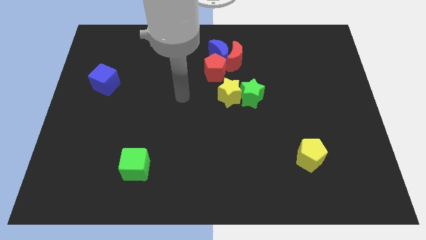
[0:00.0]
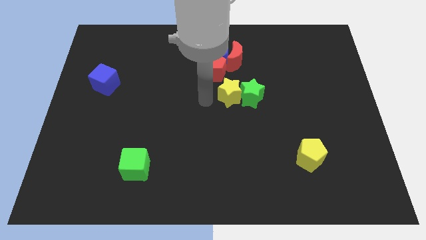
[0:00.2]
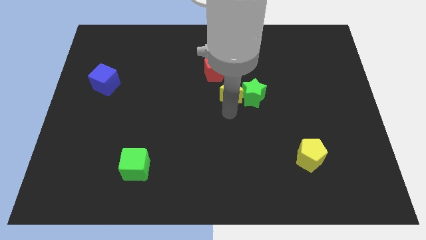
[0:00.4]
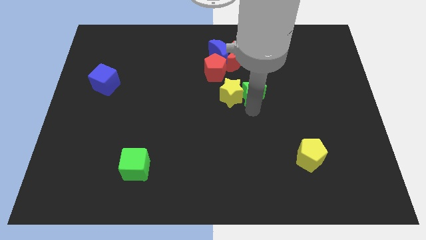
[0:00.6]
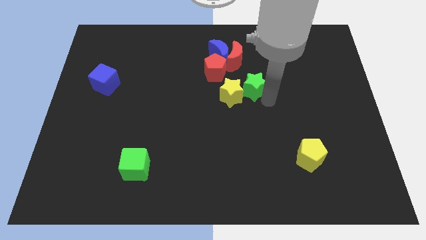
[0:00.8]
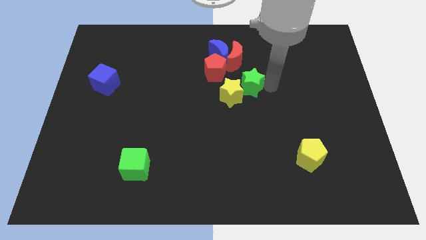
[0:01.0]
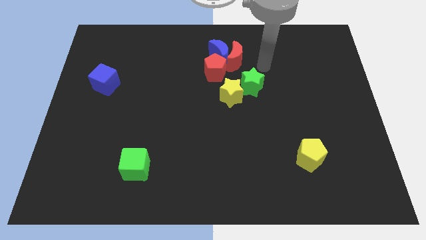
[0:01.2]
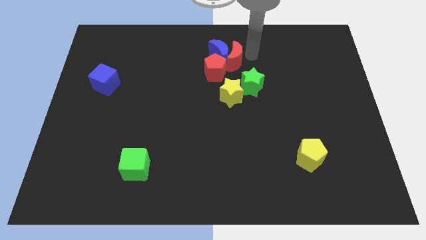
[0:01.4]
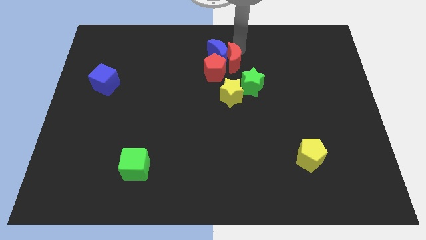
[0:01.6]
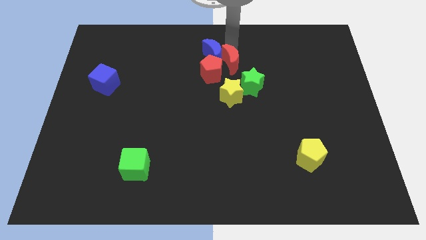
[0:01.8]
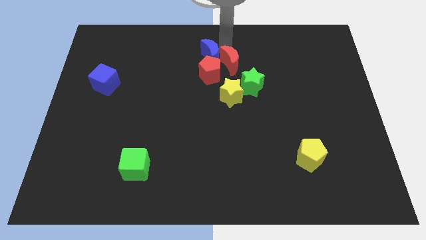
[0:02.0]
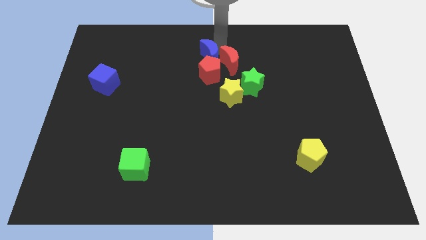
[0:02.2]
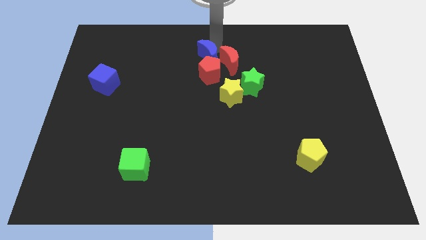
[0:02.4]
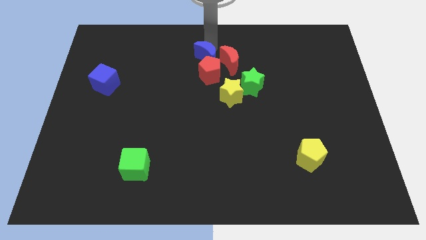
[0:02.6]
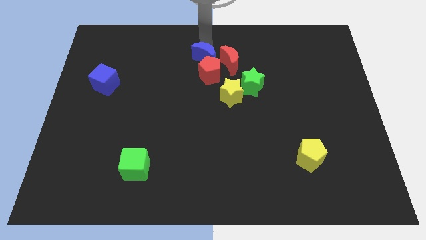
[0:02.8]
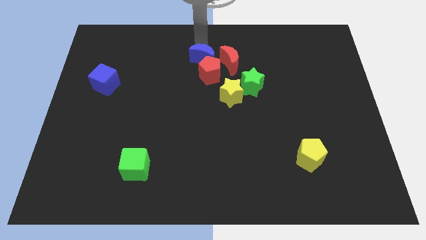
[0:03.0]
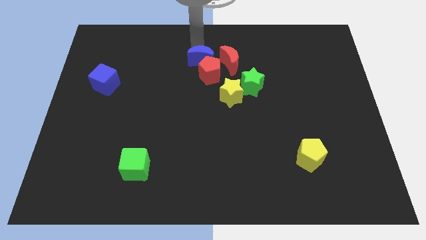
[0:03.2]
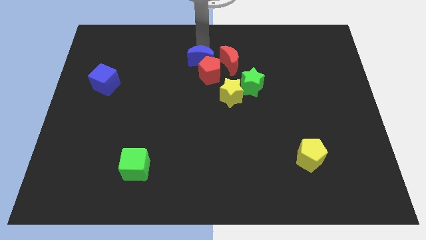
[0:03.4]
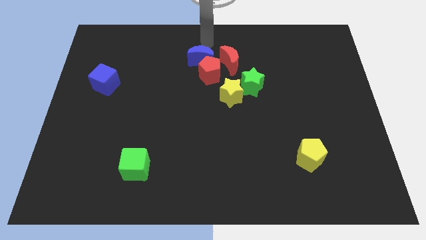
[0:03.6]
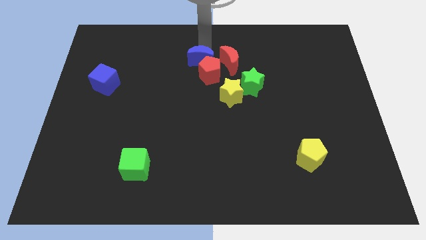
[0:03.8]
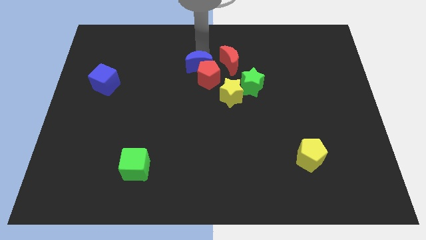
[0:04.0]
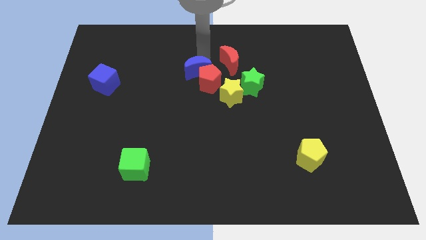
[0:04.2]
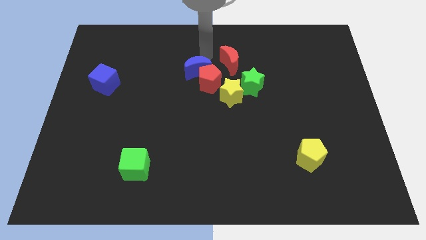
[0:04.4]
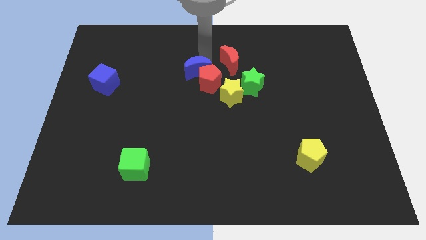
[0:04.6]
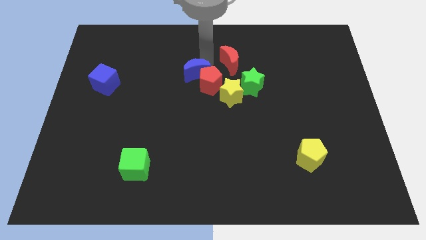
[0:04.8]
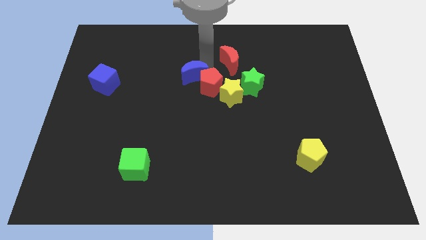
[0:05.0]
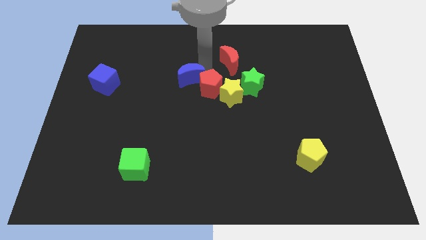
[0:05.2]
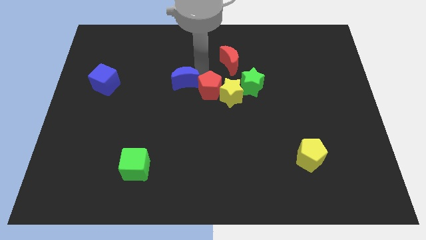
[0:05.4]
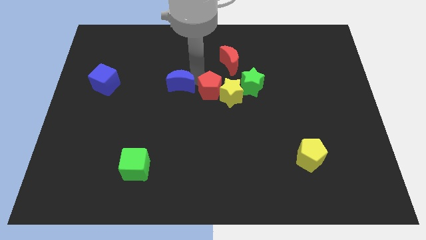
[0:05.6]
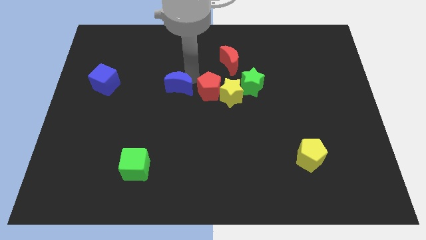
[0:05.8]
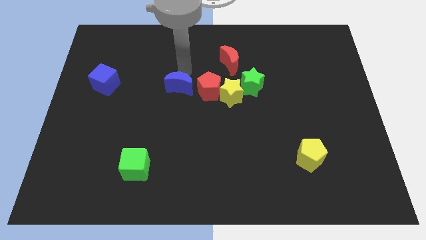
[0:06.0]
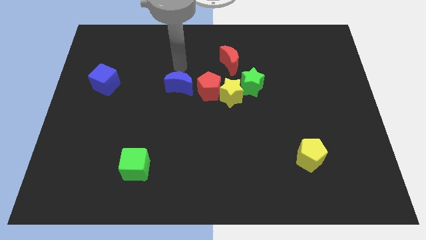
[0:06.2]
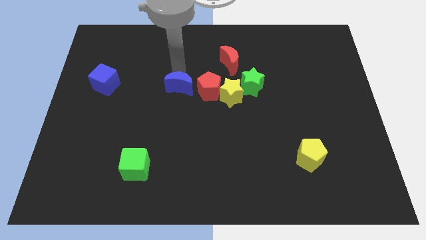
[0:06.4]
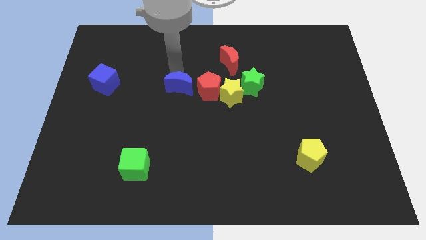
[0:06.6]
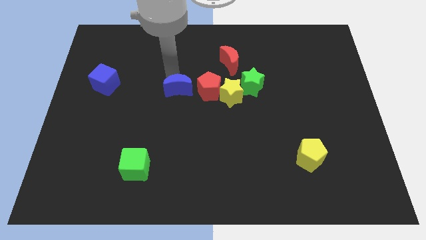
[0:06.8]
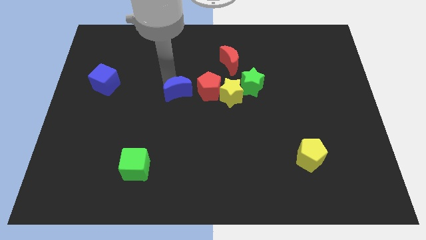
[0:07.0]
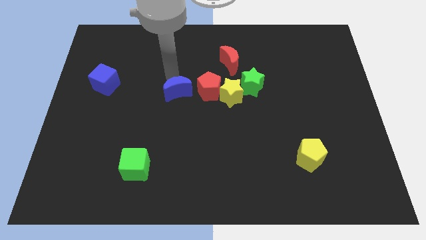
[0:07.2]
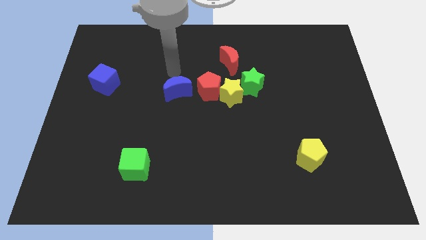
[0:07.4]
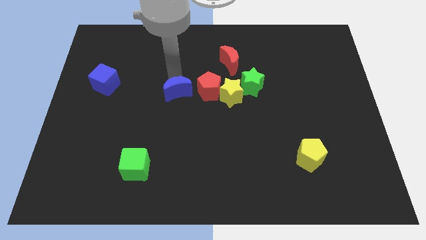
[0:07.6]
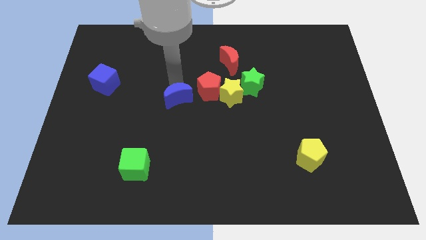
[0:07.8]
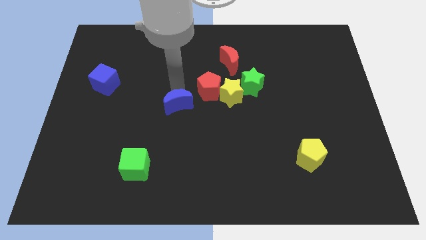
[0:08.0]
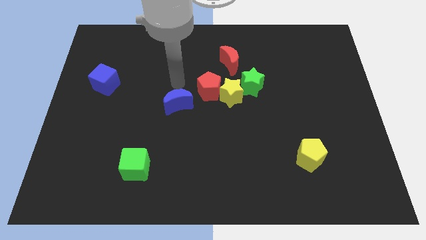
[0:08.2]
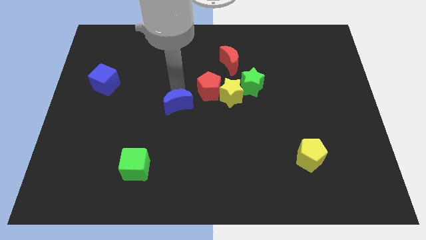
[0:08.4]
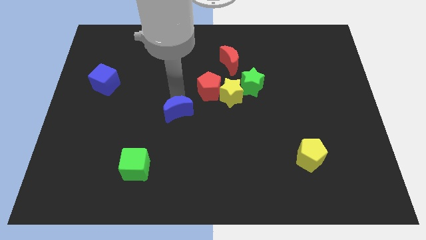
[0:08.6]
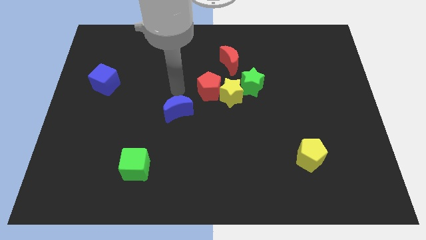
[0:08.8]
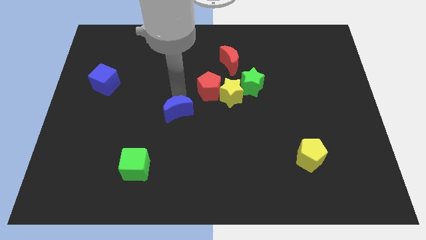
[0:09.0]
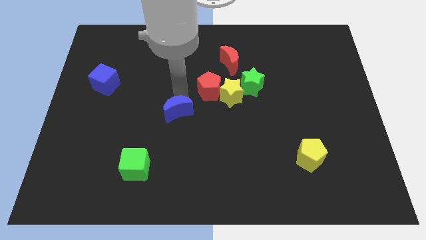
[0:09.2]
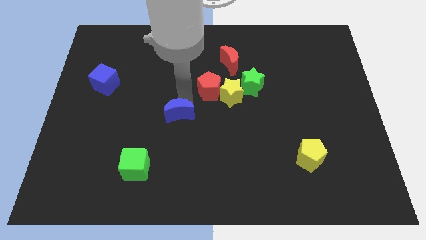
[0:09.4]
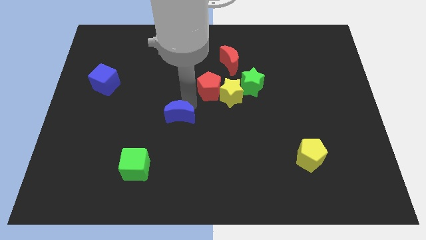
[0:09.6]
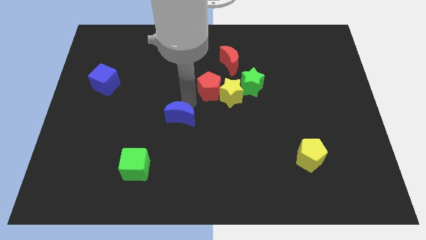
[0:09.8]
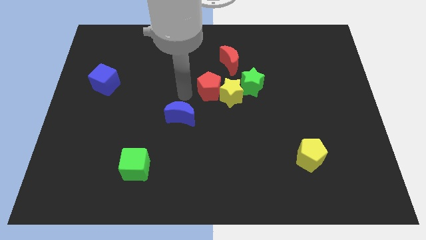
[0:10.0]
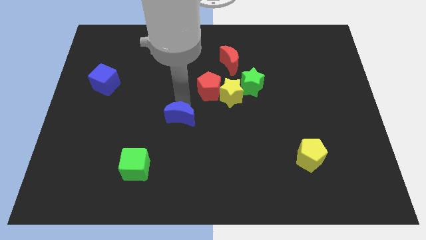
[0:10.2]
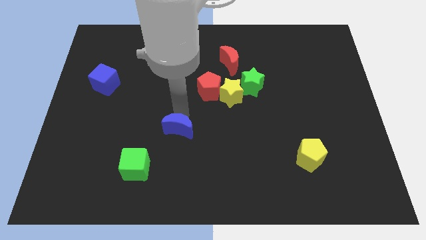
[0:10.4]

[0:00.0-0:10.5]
slide the blue moon to the top right of the green cube

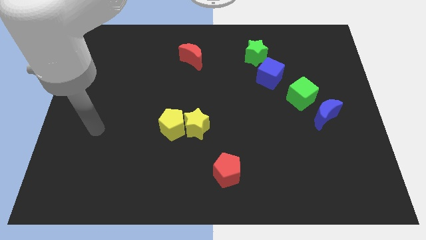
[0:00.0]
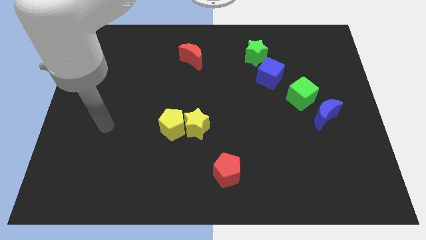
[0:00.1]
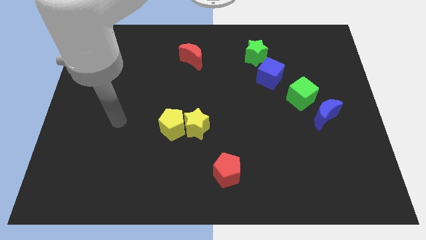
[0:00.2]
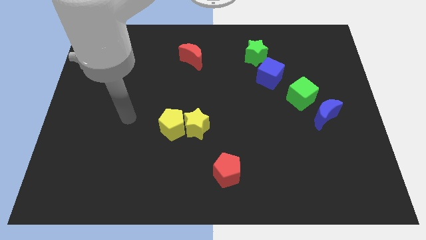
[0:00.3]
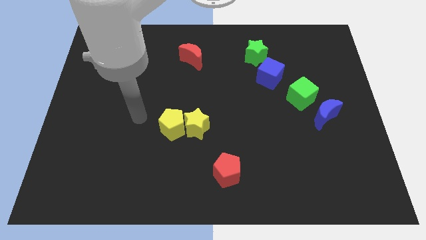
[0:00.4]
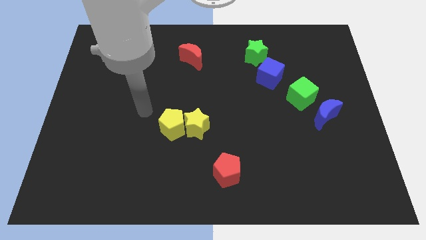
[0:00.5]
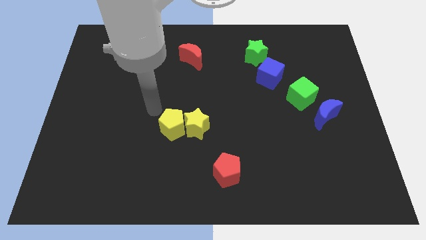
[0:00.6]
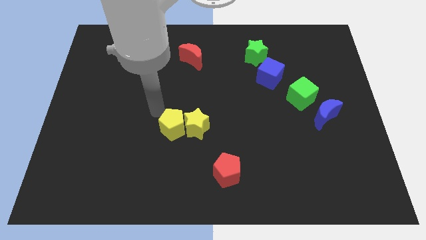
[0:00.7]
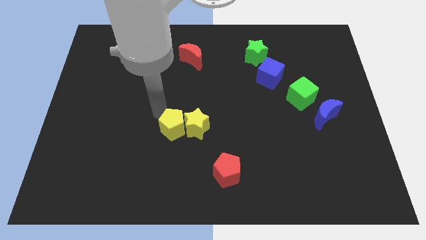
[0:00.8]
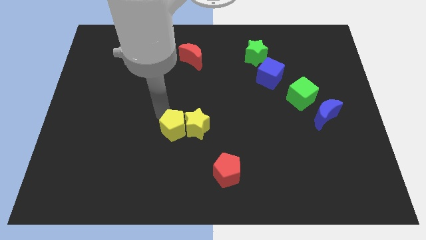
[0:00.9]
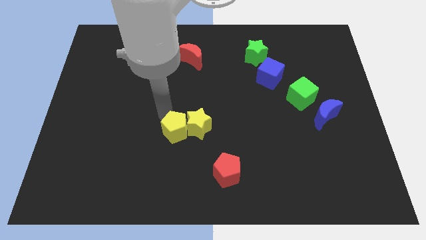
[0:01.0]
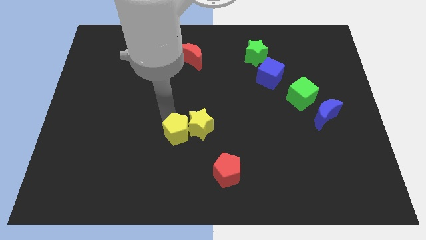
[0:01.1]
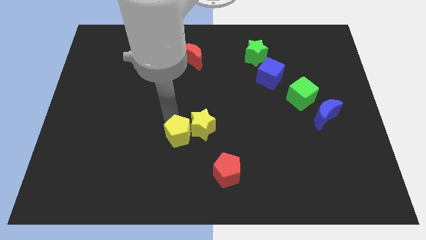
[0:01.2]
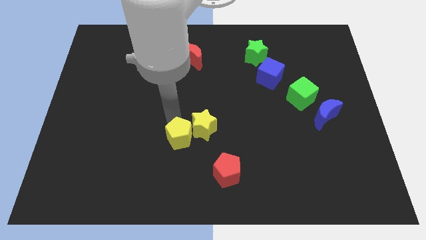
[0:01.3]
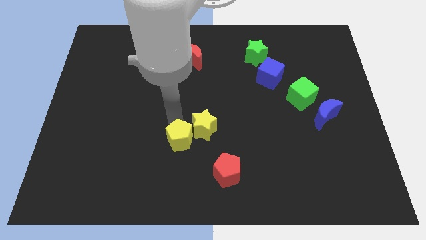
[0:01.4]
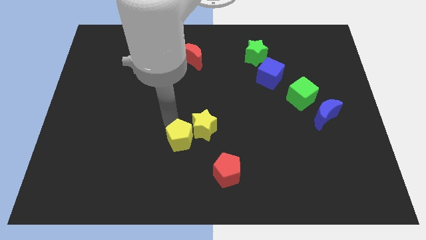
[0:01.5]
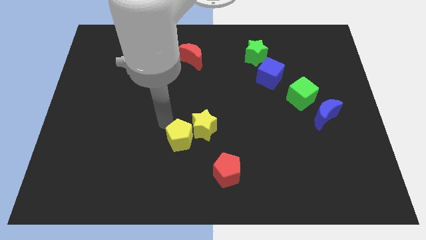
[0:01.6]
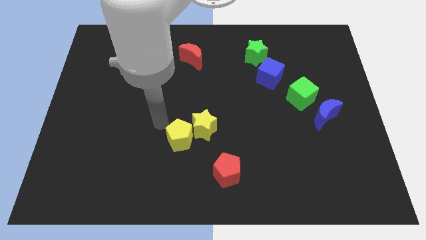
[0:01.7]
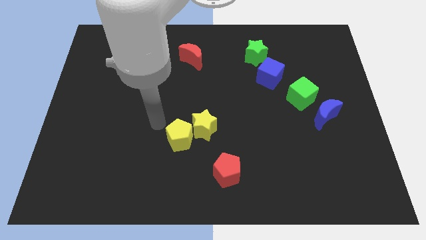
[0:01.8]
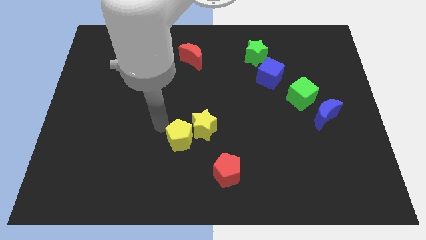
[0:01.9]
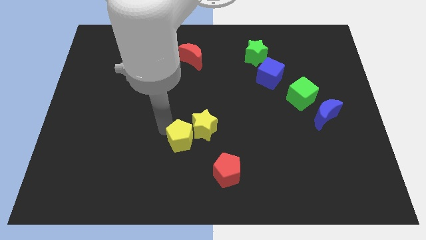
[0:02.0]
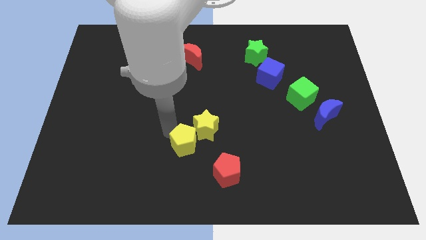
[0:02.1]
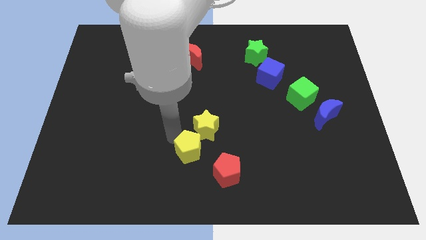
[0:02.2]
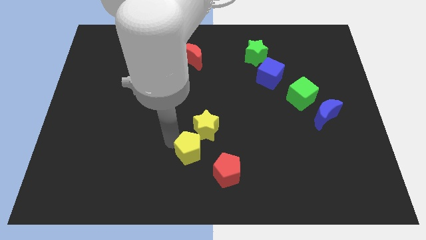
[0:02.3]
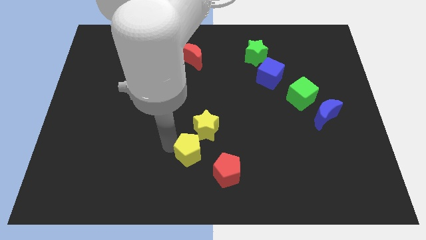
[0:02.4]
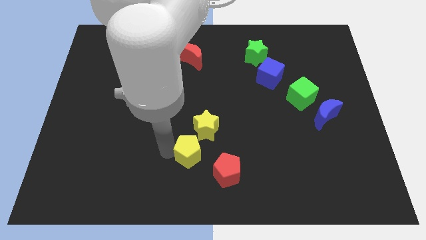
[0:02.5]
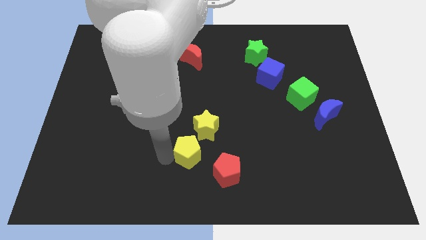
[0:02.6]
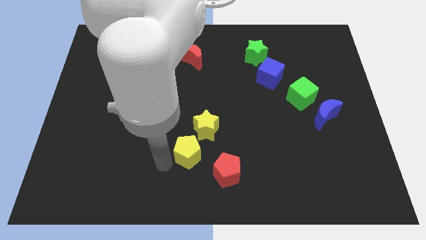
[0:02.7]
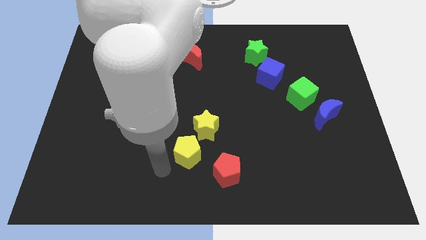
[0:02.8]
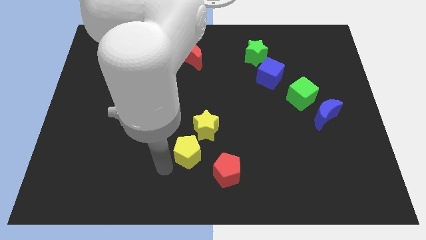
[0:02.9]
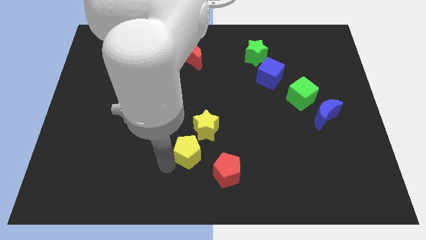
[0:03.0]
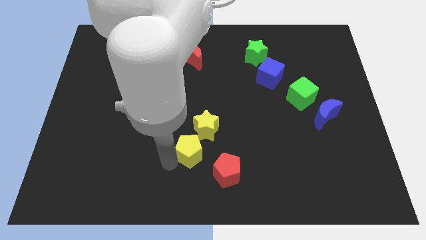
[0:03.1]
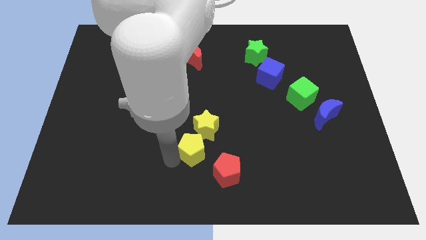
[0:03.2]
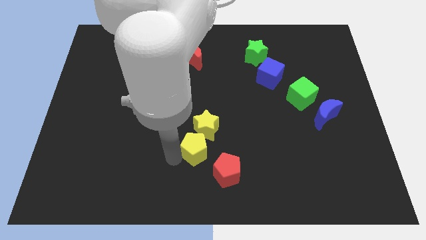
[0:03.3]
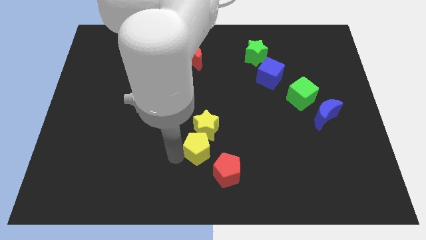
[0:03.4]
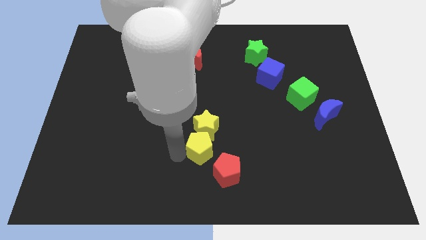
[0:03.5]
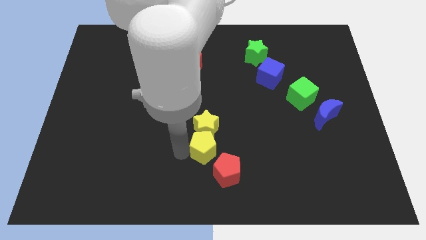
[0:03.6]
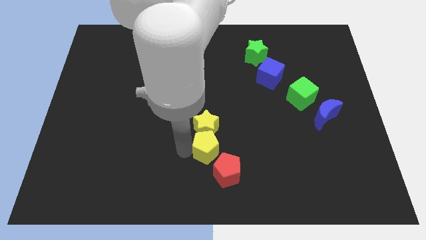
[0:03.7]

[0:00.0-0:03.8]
slide the yellow pentagon to the top of the red pentagon
